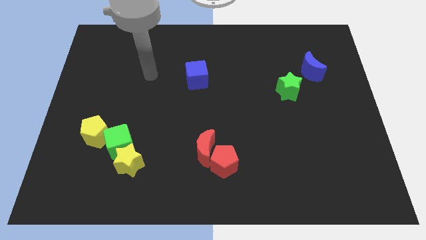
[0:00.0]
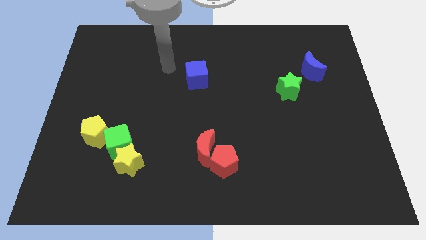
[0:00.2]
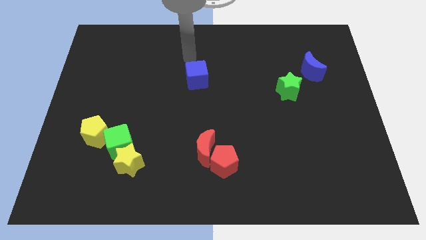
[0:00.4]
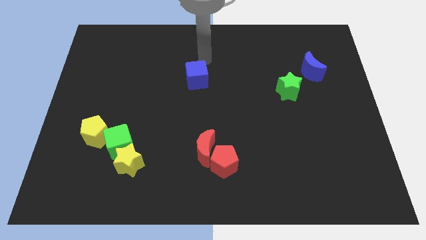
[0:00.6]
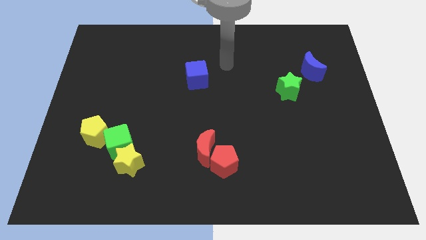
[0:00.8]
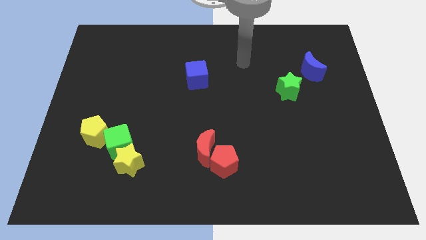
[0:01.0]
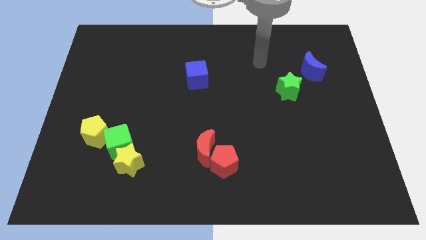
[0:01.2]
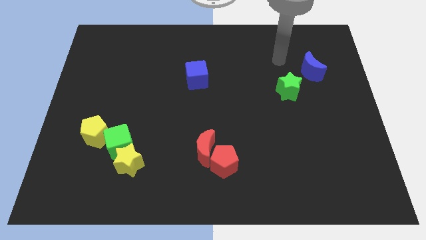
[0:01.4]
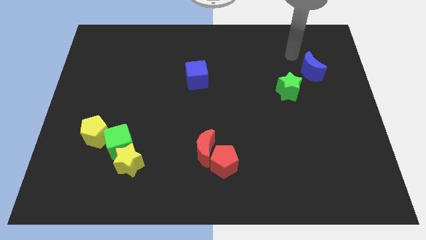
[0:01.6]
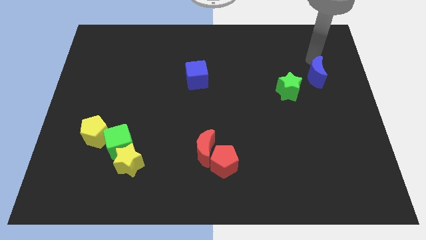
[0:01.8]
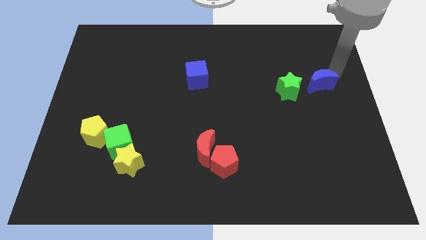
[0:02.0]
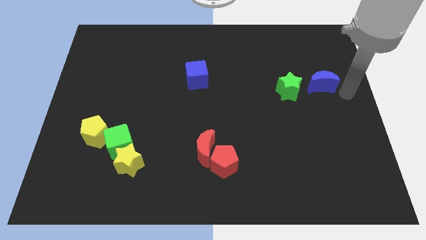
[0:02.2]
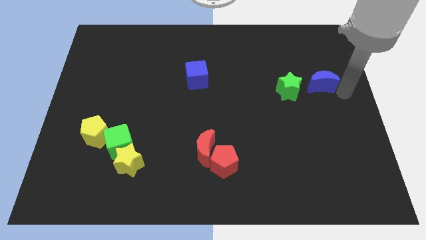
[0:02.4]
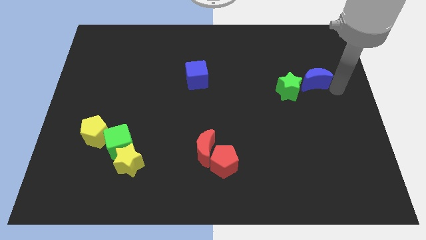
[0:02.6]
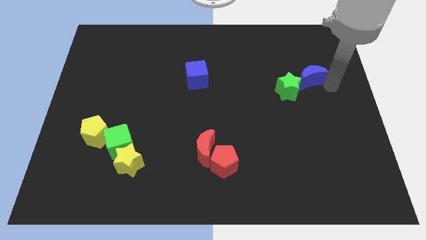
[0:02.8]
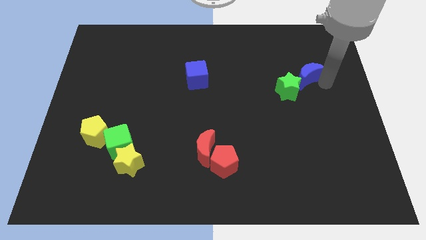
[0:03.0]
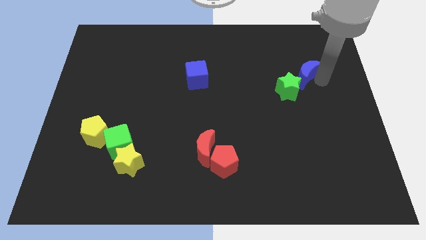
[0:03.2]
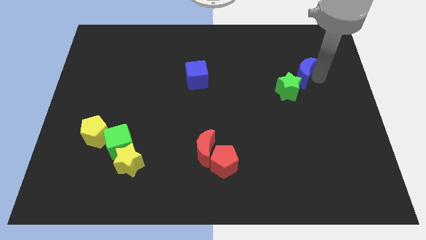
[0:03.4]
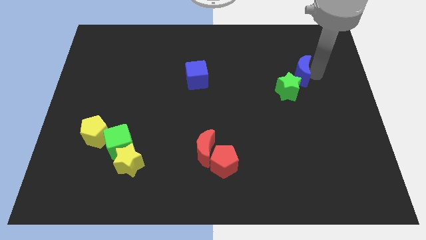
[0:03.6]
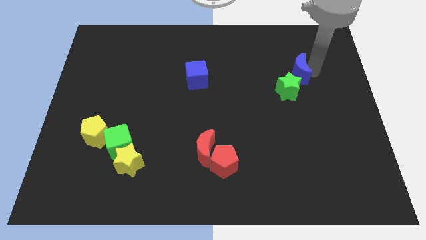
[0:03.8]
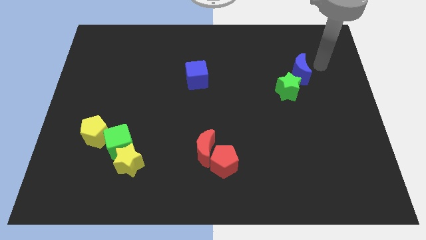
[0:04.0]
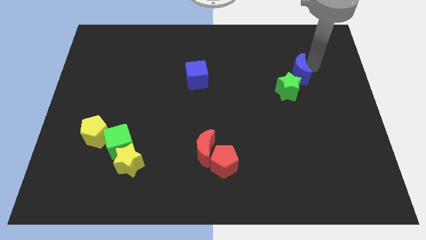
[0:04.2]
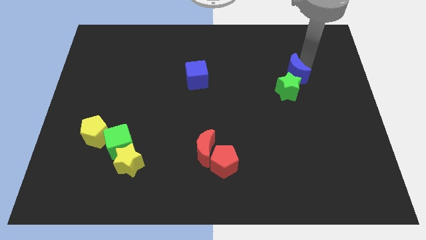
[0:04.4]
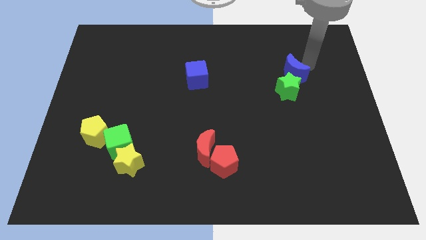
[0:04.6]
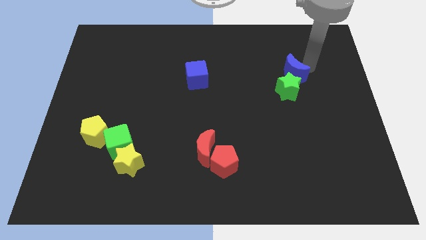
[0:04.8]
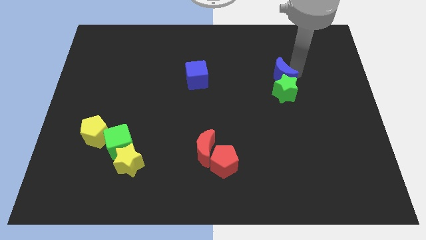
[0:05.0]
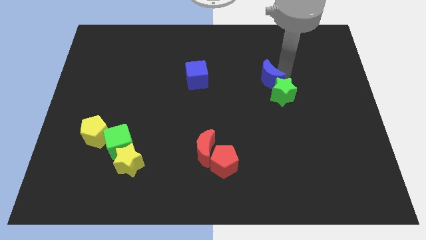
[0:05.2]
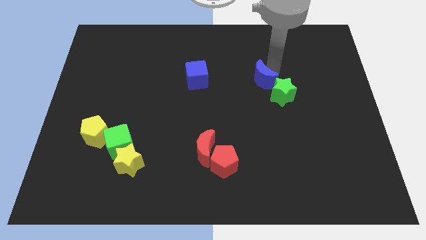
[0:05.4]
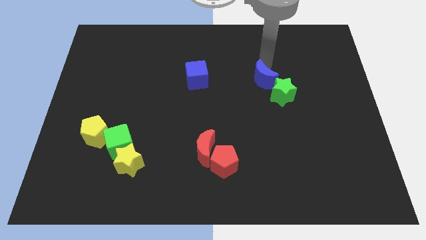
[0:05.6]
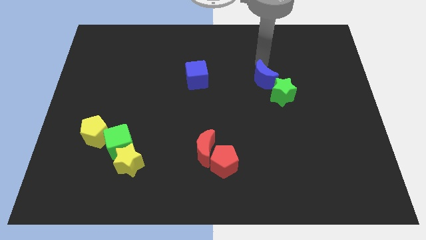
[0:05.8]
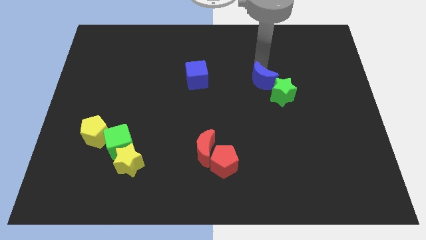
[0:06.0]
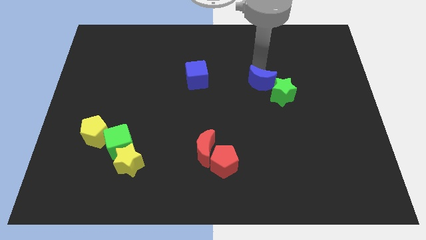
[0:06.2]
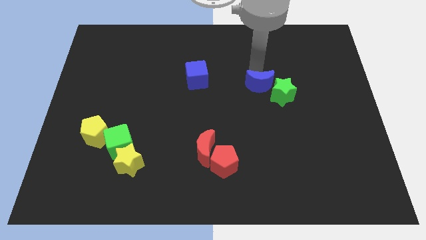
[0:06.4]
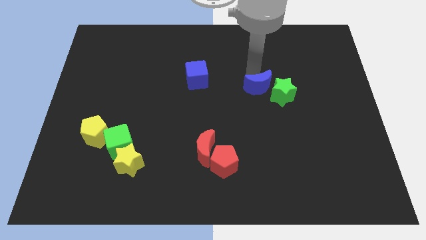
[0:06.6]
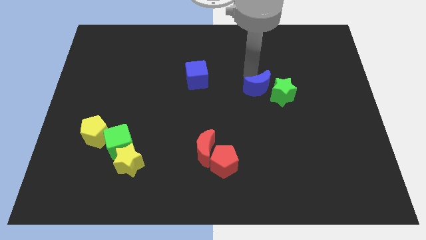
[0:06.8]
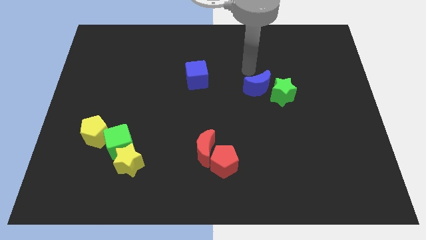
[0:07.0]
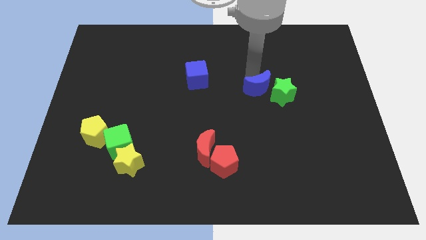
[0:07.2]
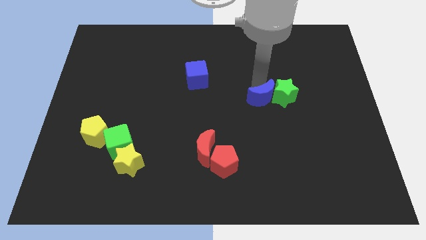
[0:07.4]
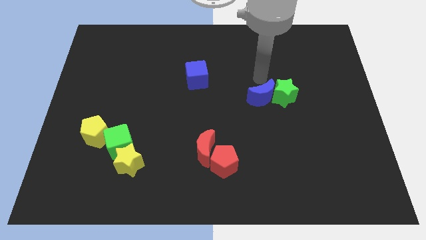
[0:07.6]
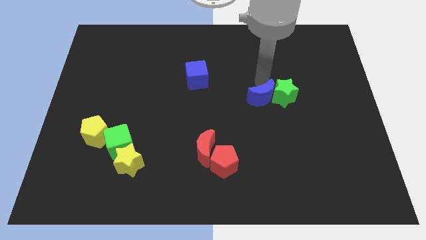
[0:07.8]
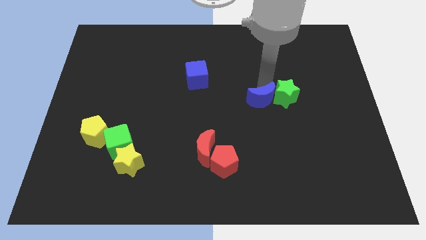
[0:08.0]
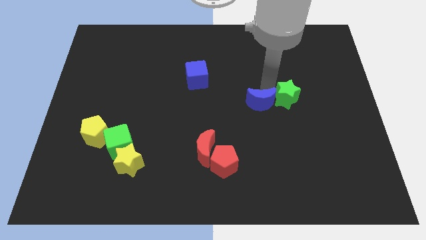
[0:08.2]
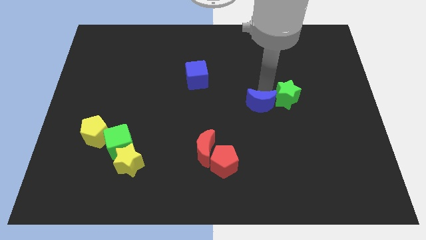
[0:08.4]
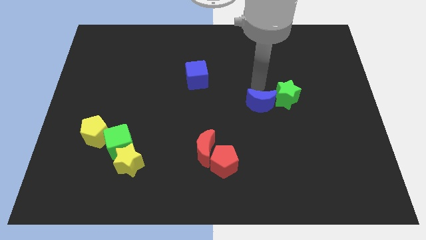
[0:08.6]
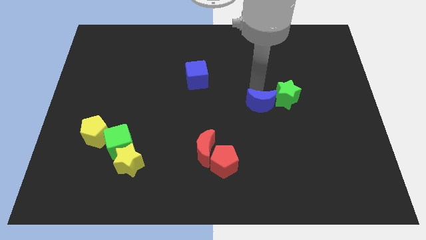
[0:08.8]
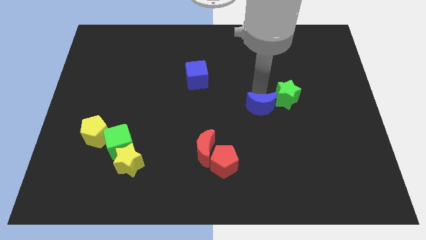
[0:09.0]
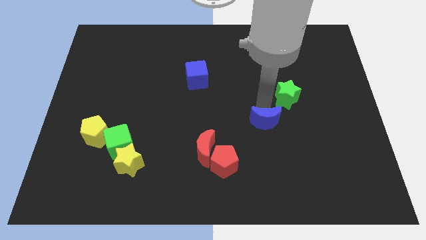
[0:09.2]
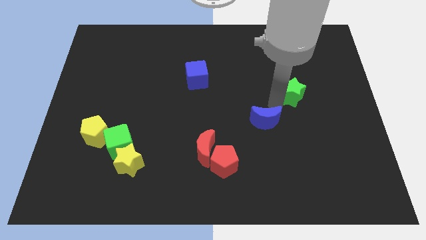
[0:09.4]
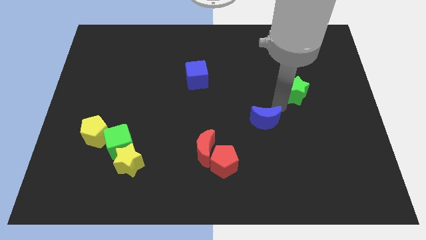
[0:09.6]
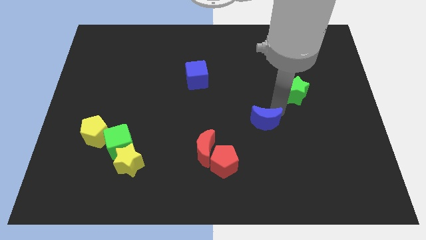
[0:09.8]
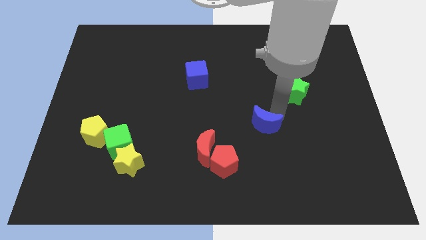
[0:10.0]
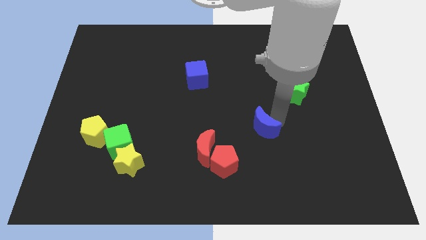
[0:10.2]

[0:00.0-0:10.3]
put the blue moon to the top right of the red pentagon

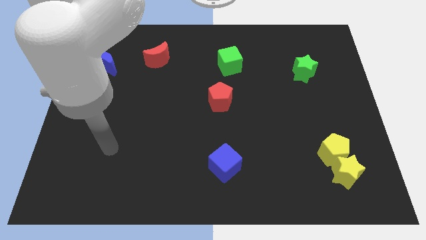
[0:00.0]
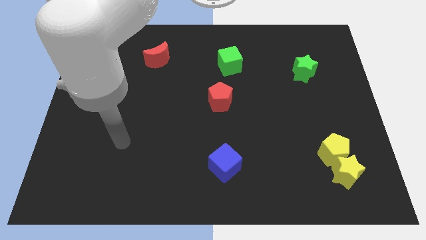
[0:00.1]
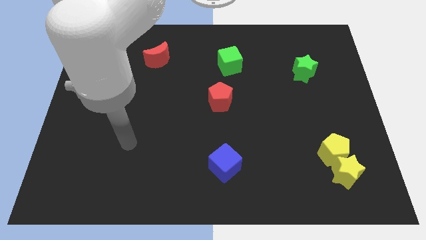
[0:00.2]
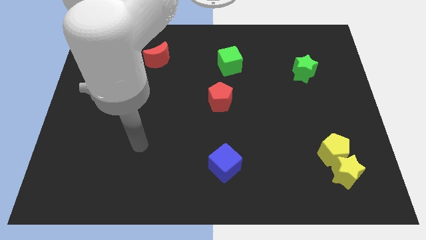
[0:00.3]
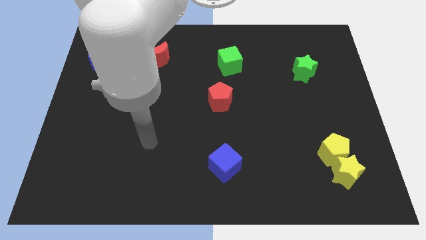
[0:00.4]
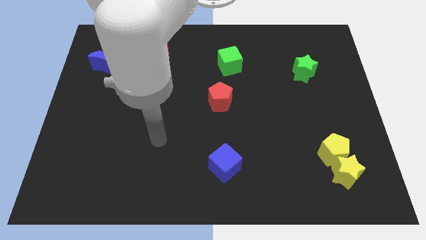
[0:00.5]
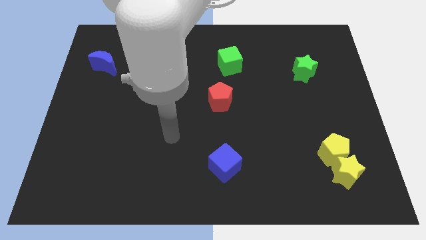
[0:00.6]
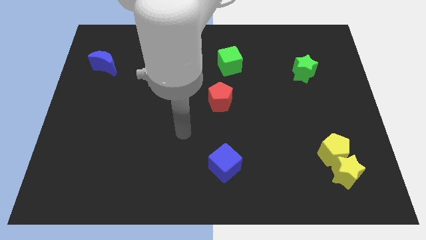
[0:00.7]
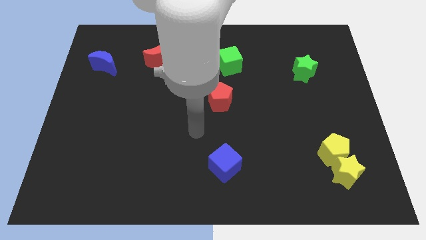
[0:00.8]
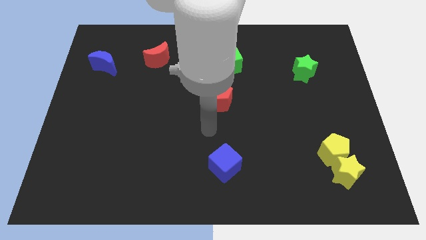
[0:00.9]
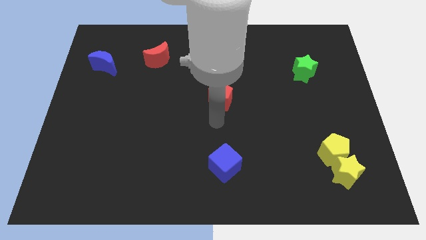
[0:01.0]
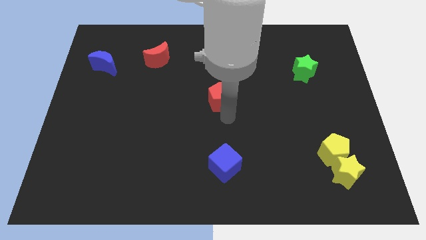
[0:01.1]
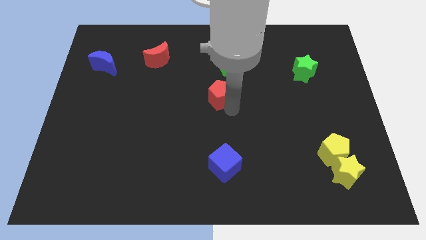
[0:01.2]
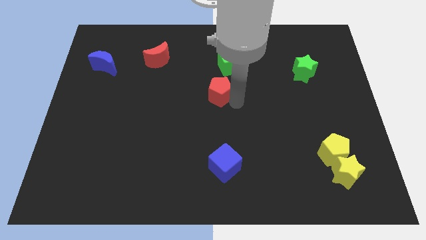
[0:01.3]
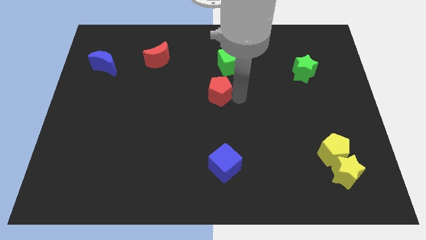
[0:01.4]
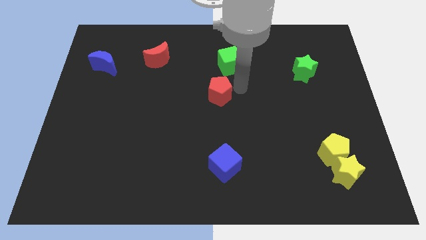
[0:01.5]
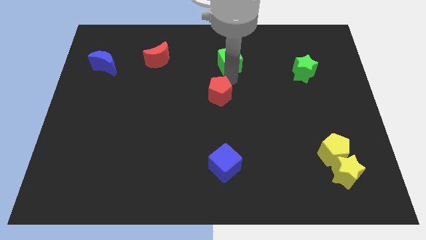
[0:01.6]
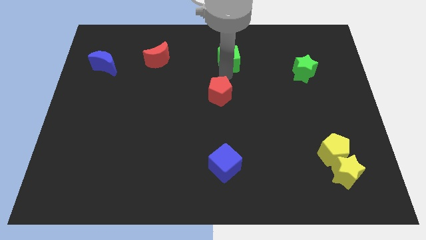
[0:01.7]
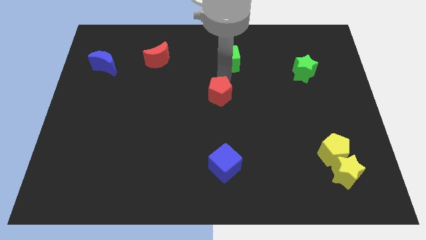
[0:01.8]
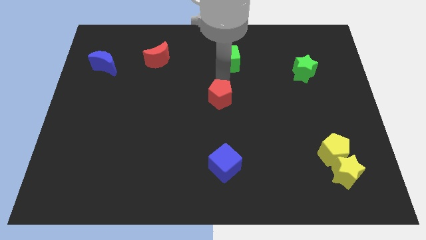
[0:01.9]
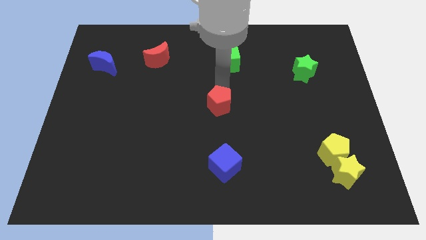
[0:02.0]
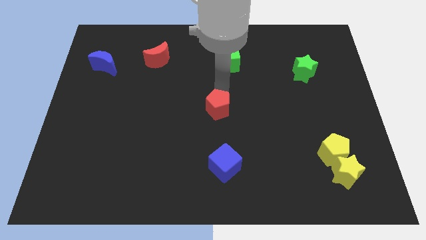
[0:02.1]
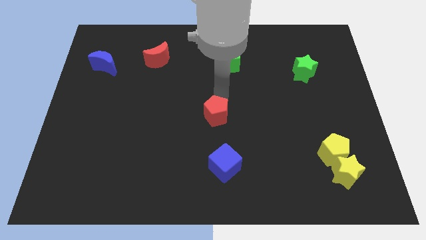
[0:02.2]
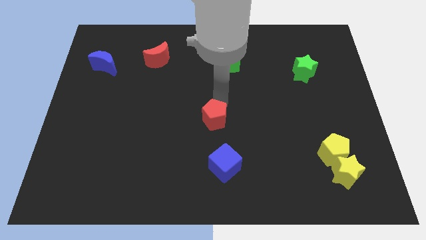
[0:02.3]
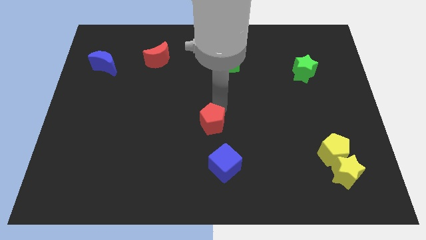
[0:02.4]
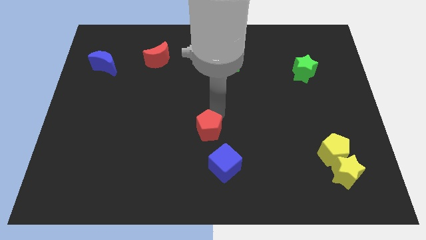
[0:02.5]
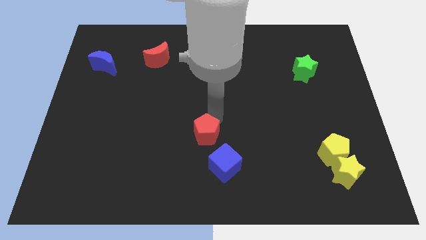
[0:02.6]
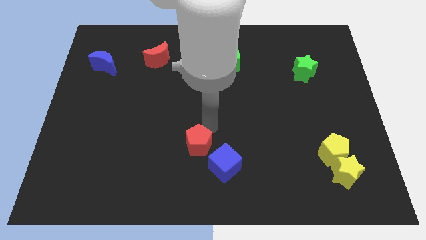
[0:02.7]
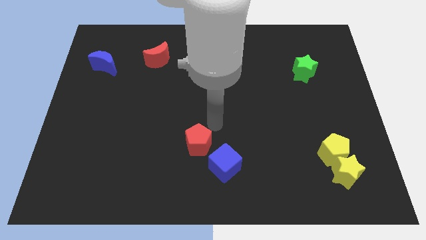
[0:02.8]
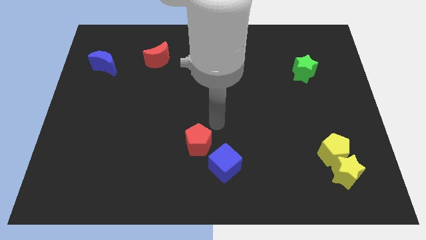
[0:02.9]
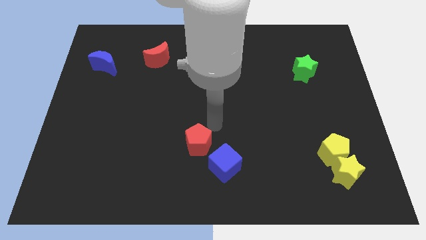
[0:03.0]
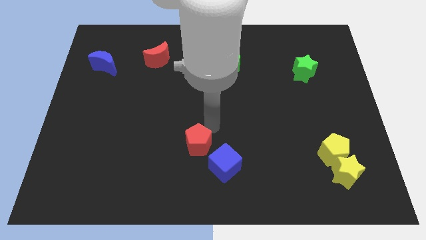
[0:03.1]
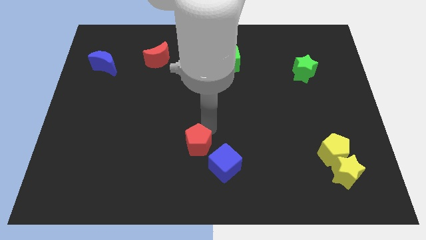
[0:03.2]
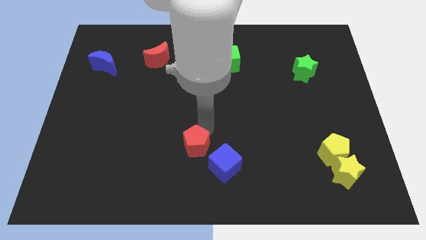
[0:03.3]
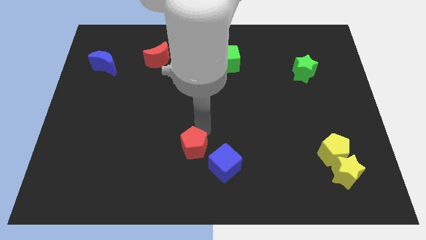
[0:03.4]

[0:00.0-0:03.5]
push the red pentagon just left of the blue cube
